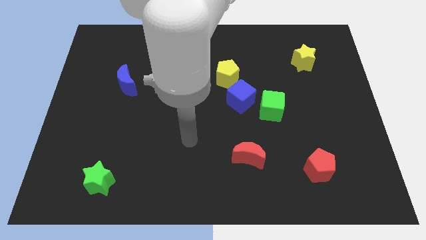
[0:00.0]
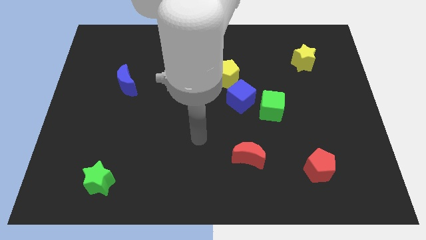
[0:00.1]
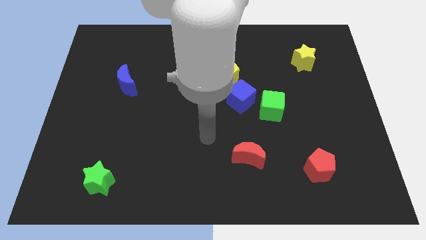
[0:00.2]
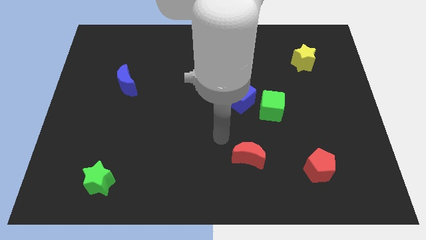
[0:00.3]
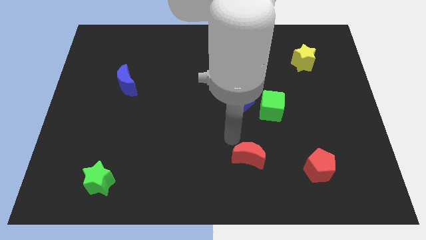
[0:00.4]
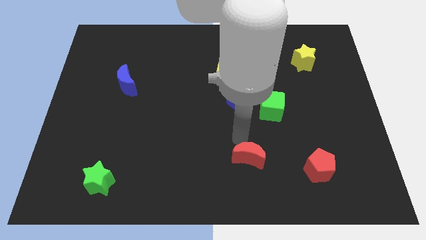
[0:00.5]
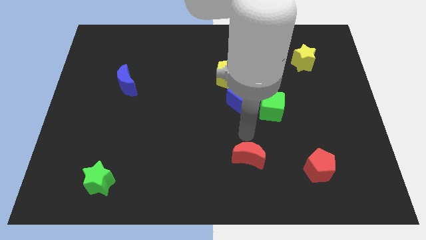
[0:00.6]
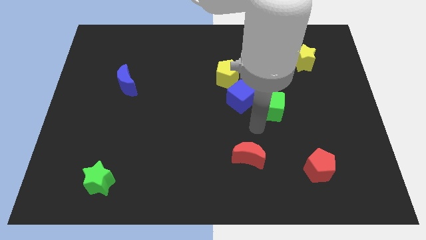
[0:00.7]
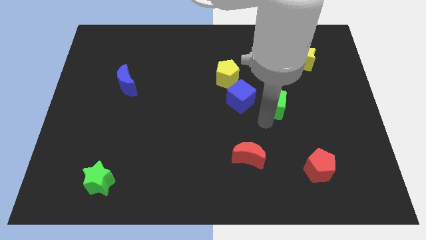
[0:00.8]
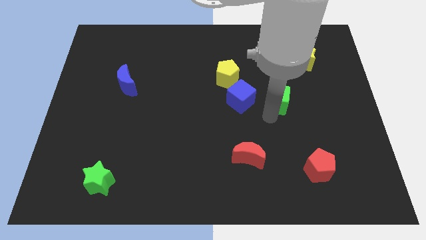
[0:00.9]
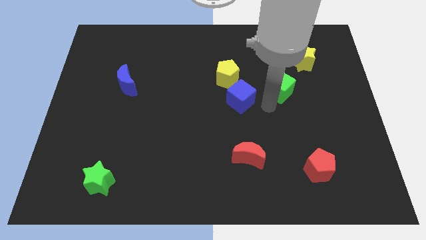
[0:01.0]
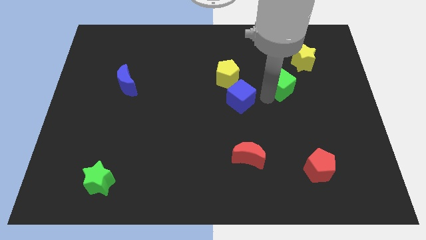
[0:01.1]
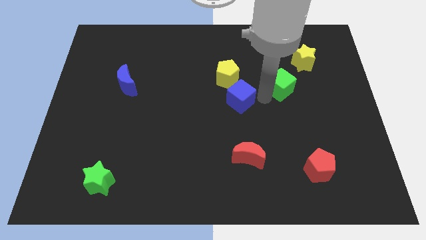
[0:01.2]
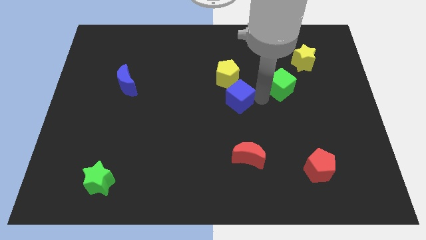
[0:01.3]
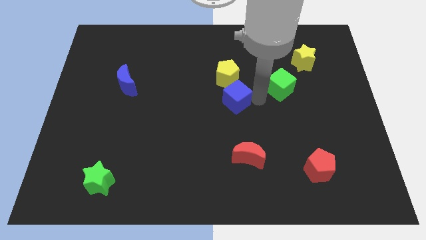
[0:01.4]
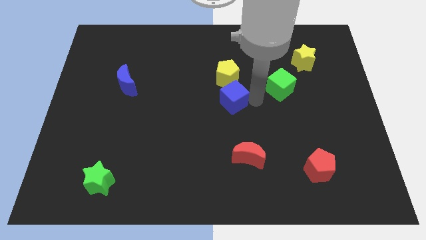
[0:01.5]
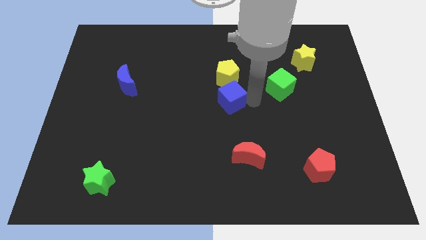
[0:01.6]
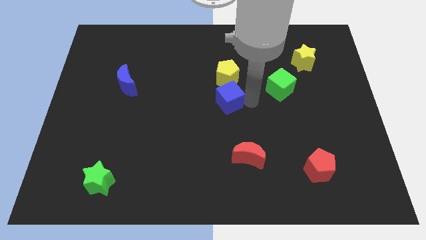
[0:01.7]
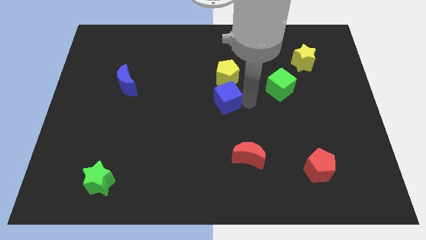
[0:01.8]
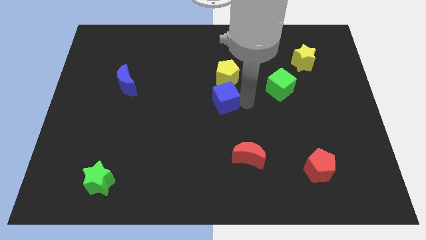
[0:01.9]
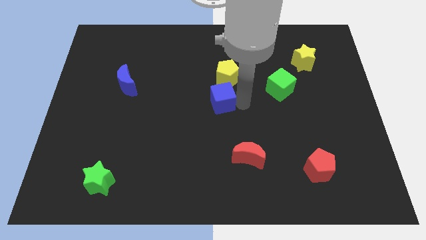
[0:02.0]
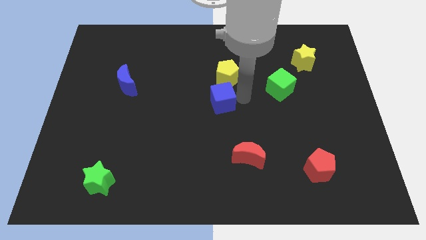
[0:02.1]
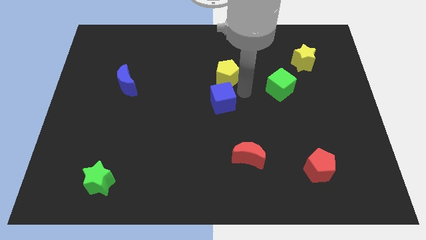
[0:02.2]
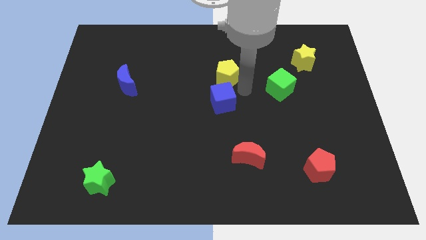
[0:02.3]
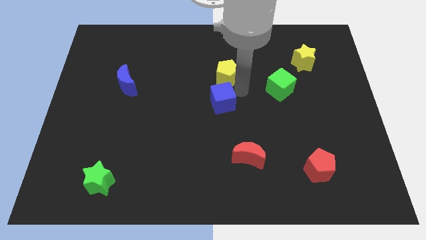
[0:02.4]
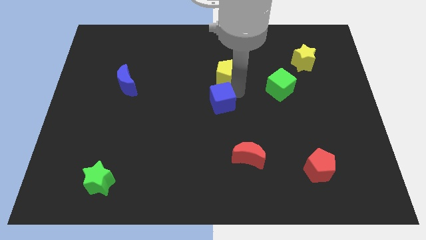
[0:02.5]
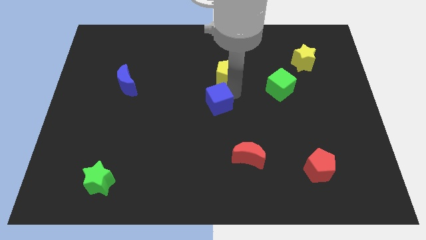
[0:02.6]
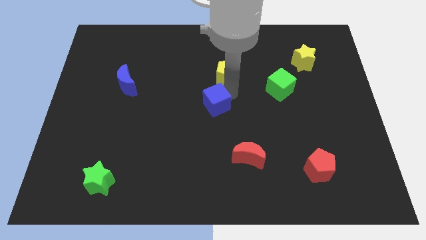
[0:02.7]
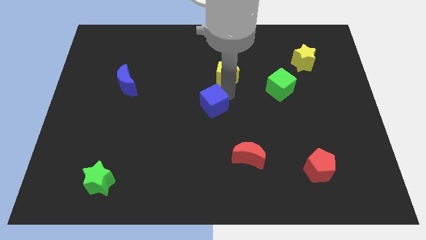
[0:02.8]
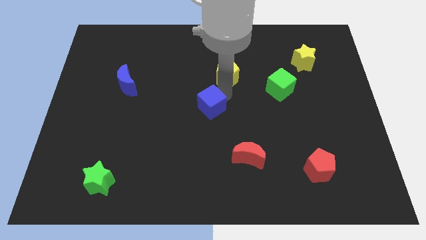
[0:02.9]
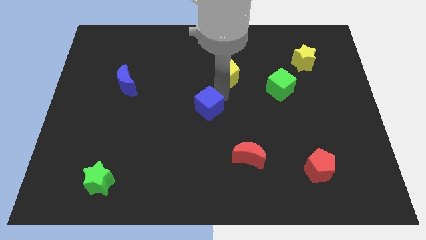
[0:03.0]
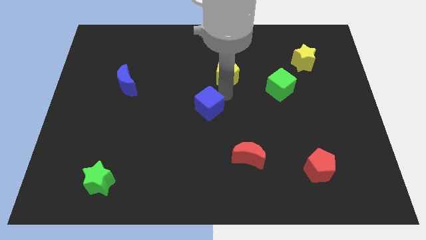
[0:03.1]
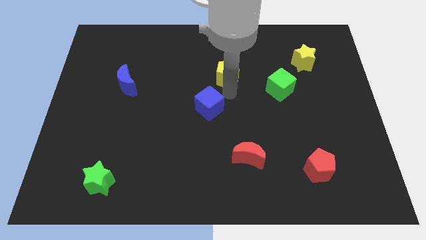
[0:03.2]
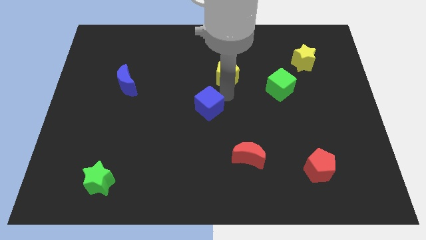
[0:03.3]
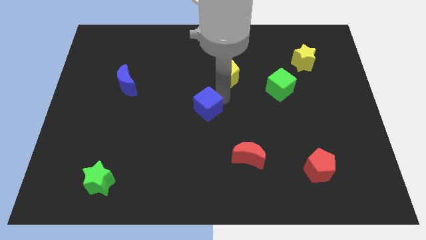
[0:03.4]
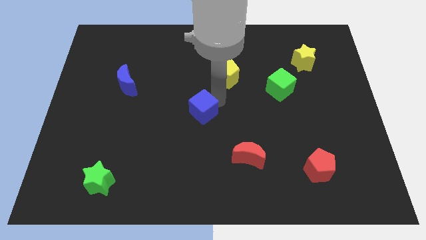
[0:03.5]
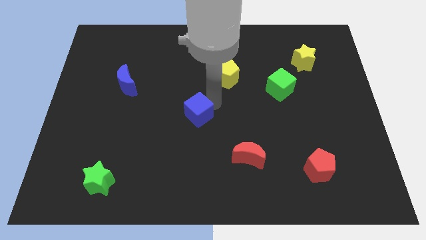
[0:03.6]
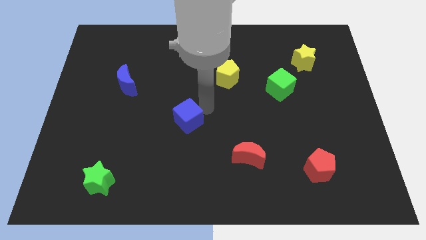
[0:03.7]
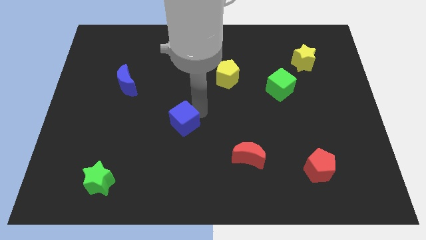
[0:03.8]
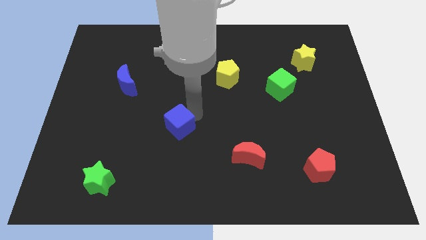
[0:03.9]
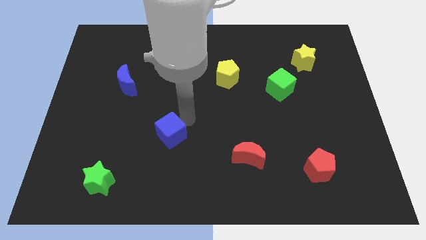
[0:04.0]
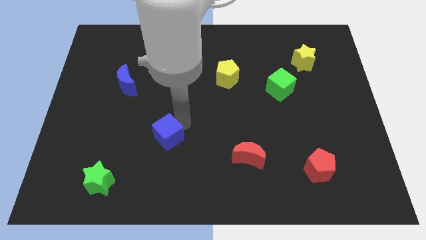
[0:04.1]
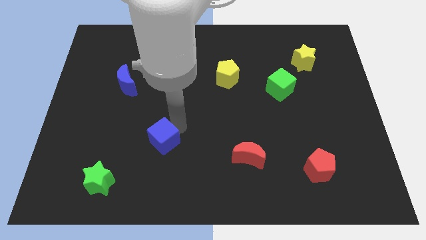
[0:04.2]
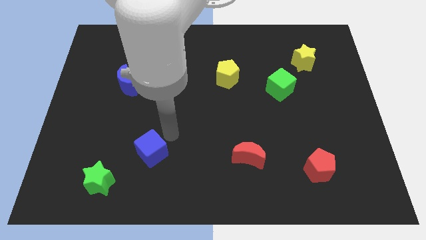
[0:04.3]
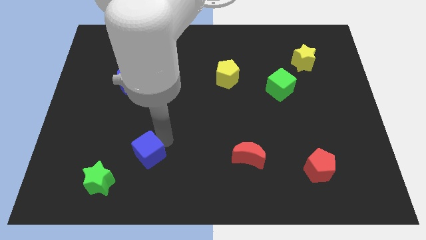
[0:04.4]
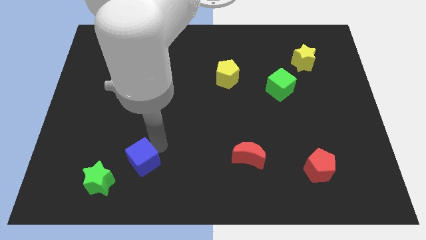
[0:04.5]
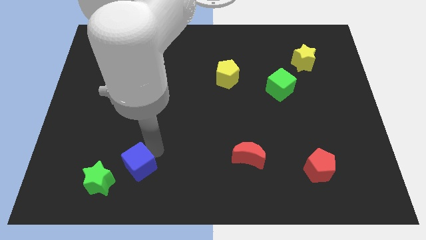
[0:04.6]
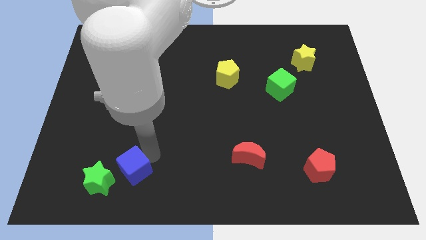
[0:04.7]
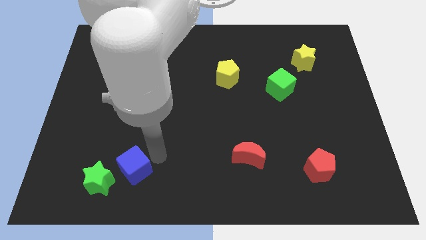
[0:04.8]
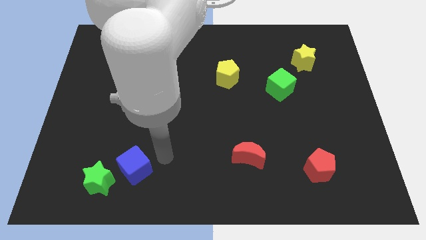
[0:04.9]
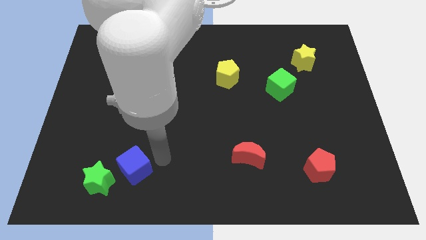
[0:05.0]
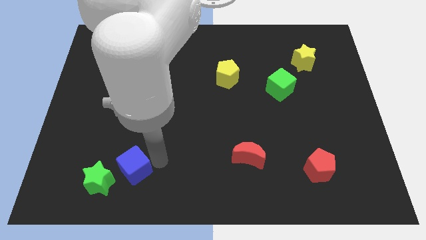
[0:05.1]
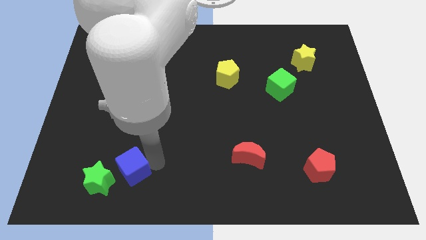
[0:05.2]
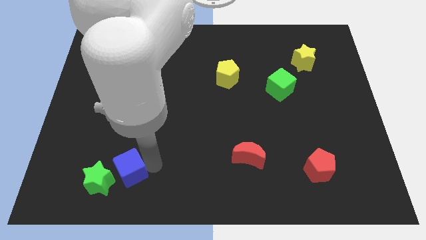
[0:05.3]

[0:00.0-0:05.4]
slide the blue cube next to the green star

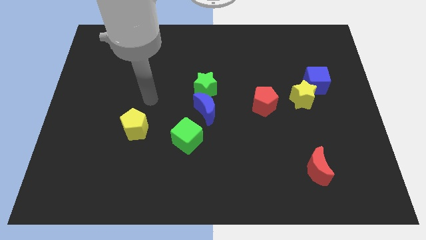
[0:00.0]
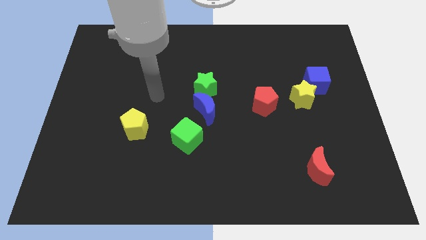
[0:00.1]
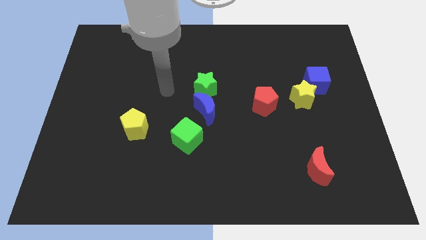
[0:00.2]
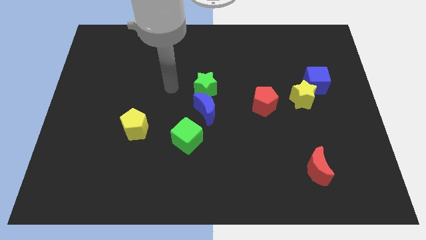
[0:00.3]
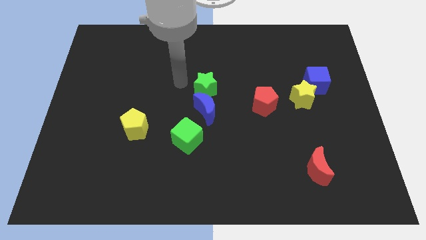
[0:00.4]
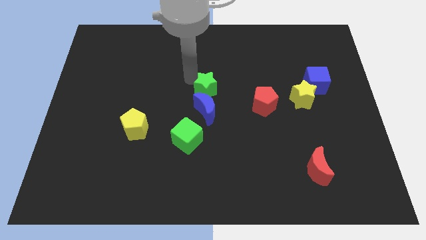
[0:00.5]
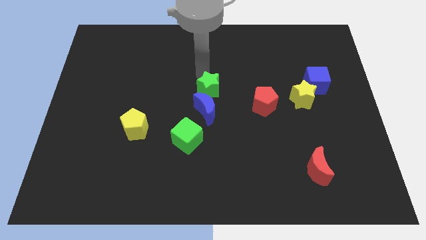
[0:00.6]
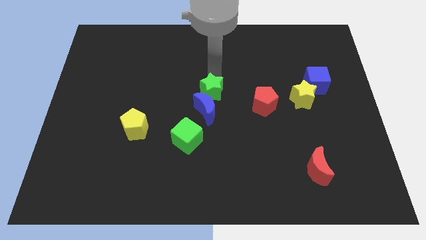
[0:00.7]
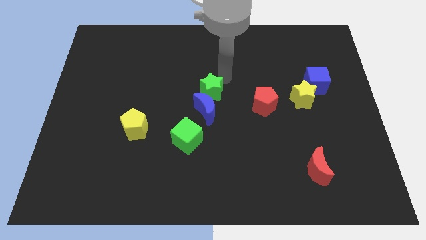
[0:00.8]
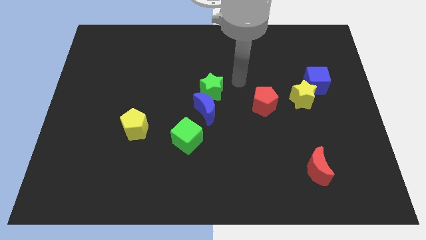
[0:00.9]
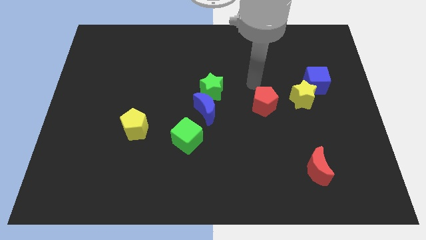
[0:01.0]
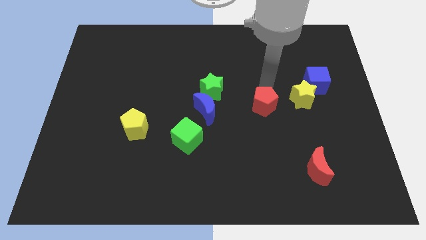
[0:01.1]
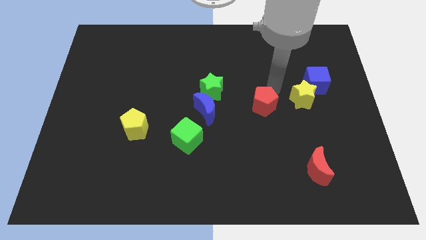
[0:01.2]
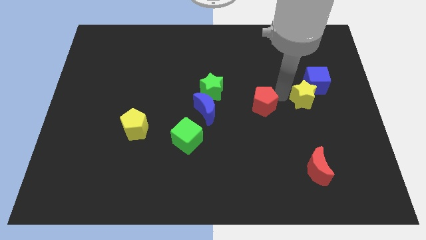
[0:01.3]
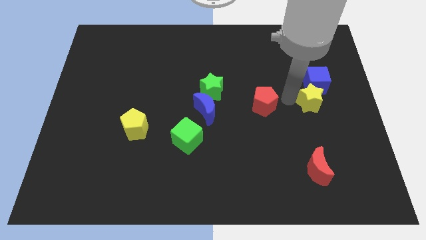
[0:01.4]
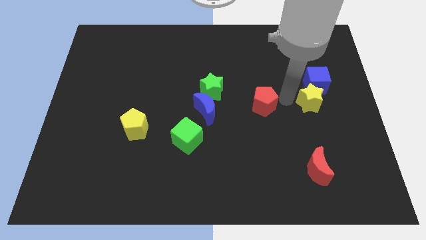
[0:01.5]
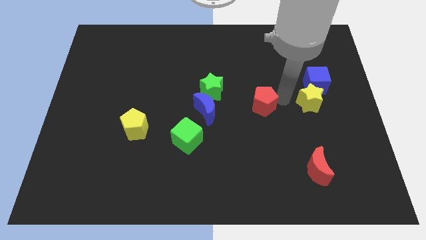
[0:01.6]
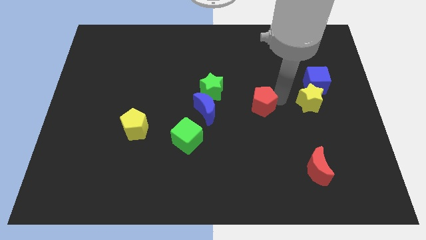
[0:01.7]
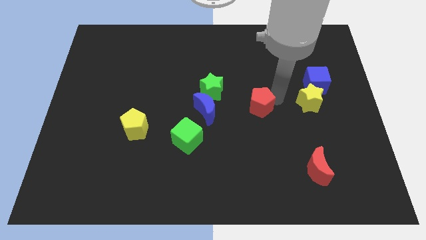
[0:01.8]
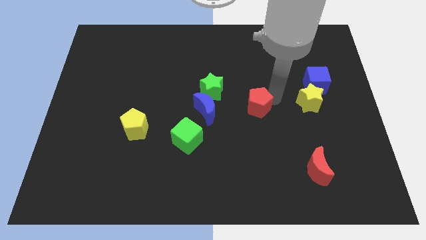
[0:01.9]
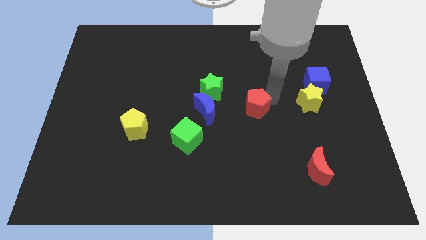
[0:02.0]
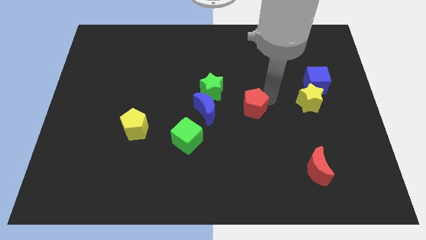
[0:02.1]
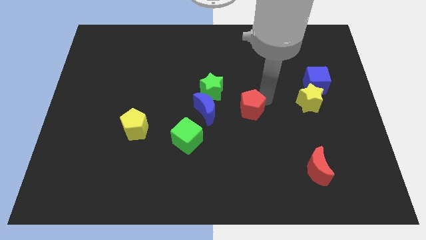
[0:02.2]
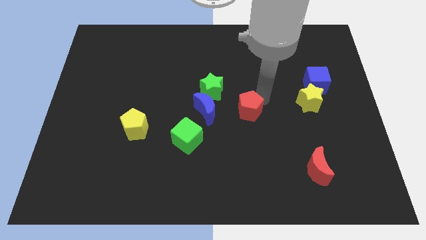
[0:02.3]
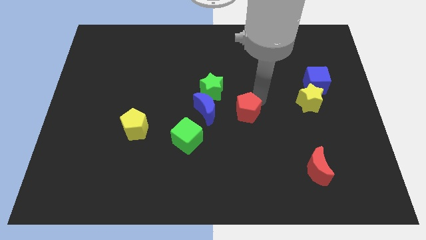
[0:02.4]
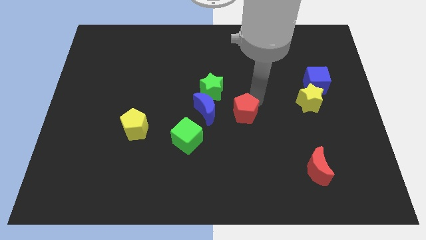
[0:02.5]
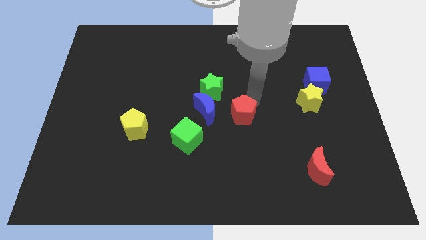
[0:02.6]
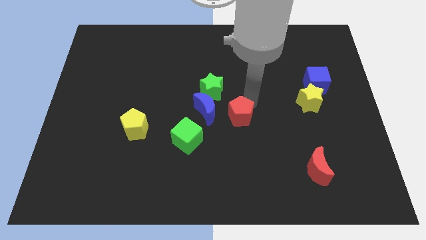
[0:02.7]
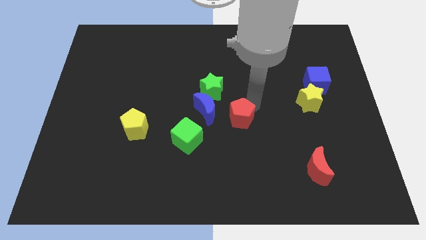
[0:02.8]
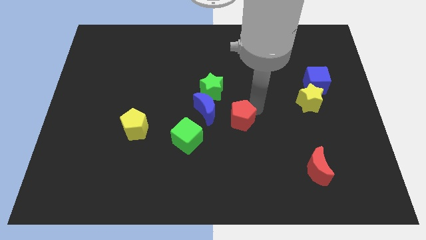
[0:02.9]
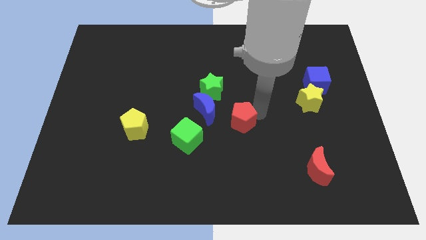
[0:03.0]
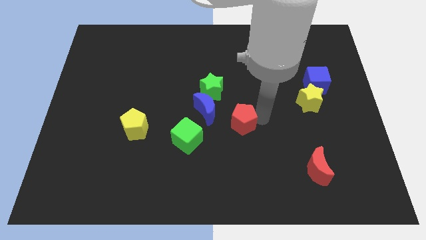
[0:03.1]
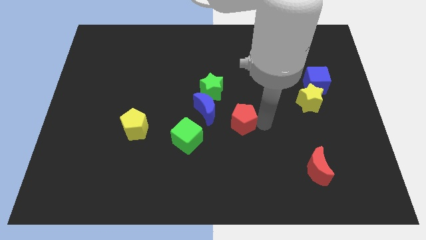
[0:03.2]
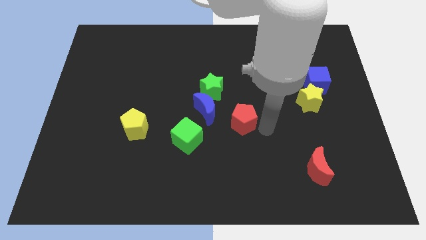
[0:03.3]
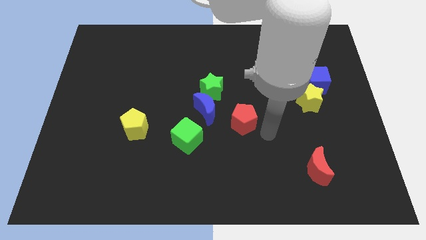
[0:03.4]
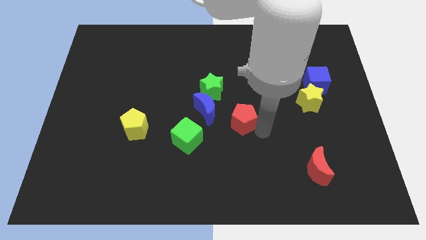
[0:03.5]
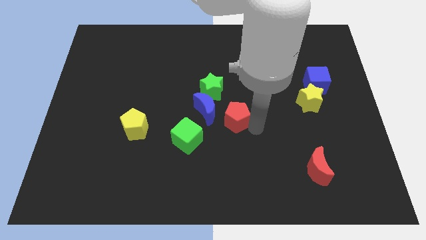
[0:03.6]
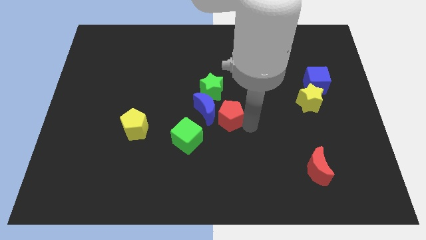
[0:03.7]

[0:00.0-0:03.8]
slide the red pentagon to the blue moon
